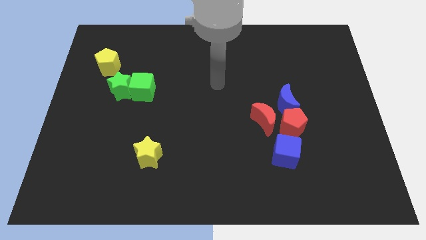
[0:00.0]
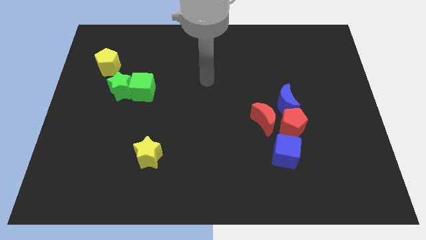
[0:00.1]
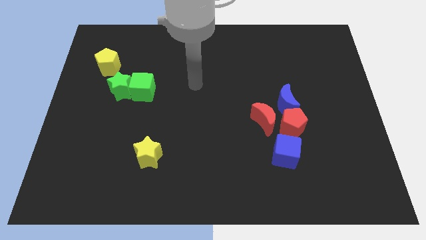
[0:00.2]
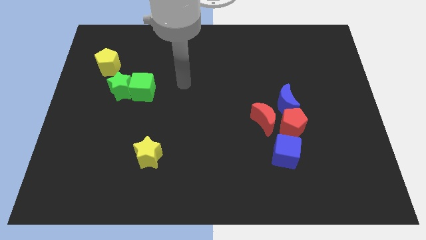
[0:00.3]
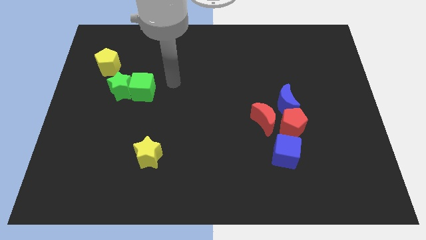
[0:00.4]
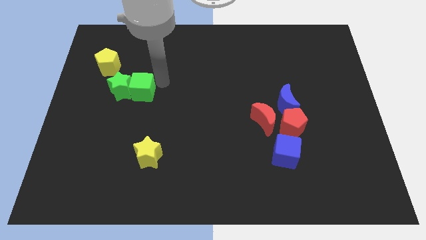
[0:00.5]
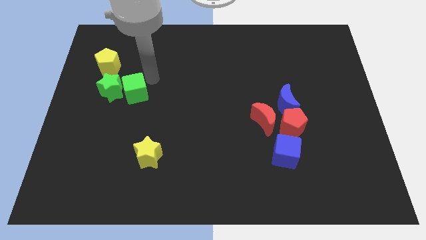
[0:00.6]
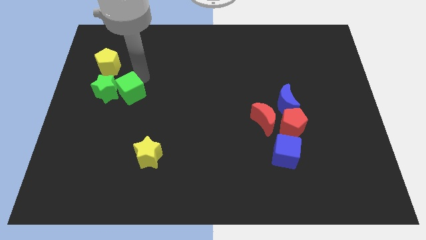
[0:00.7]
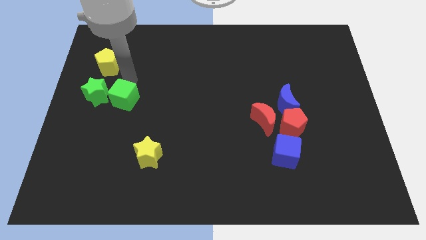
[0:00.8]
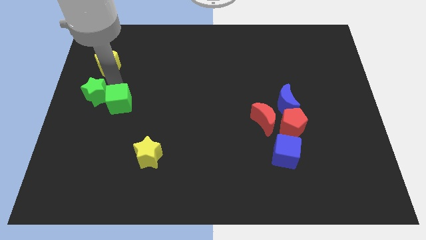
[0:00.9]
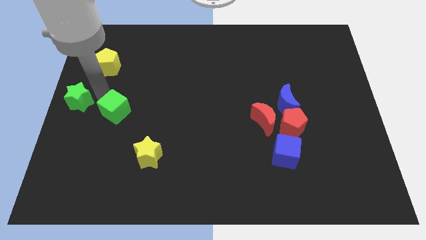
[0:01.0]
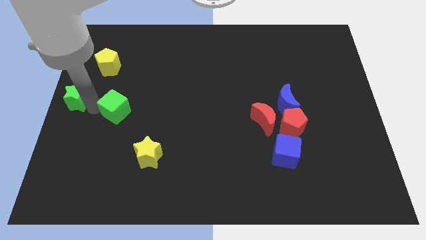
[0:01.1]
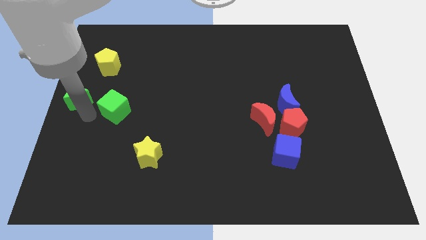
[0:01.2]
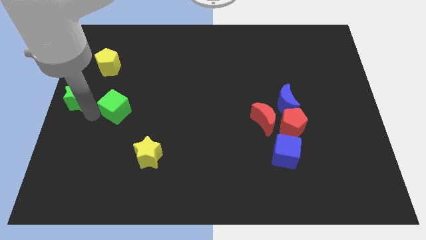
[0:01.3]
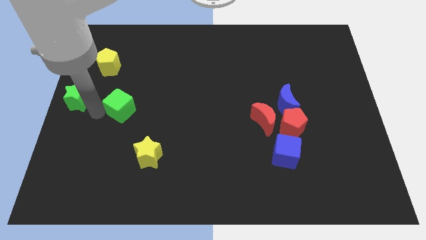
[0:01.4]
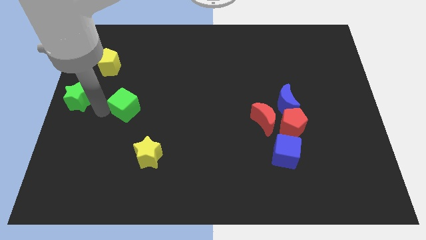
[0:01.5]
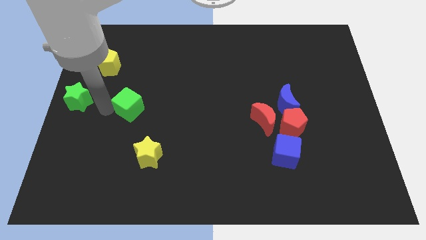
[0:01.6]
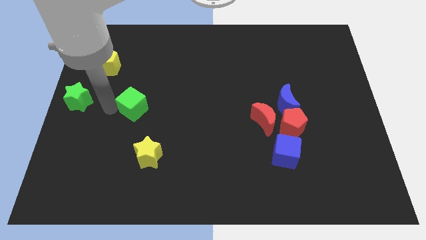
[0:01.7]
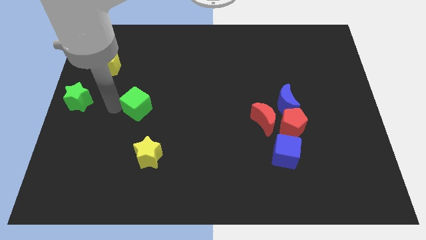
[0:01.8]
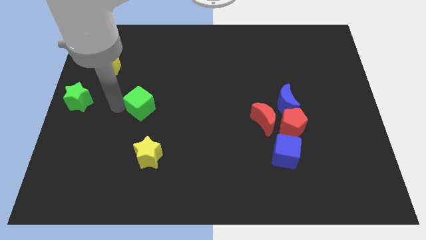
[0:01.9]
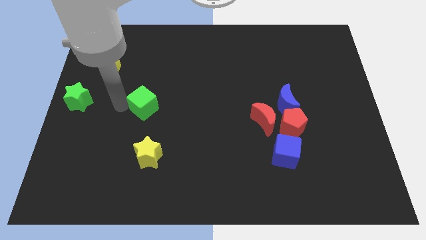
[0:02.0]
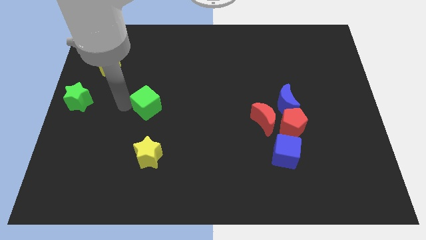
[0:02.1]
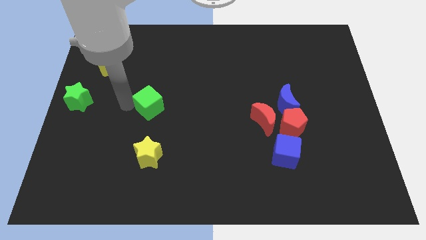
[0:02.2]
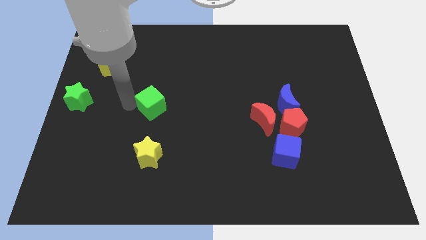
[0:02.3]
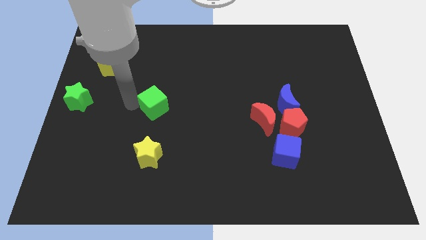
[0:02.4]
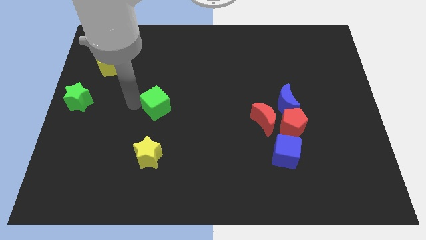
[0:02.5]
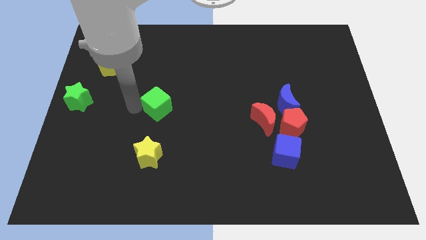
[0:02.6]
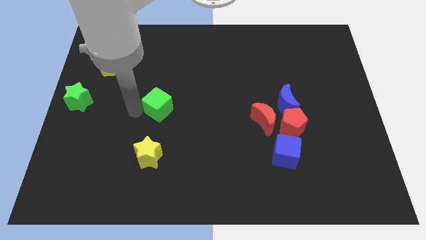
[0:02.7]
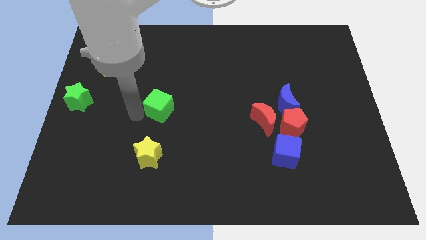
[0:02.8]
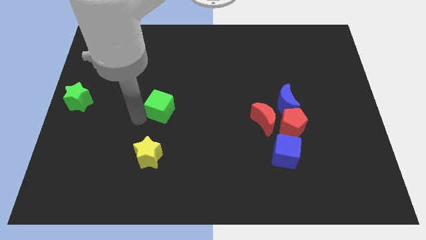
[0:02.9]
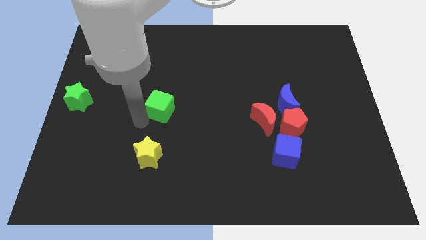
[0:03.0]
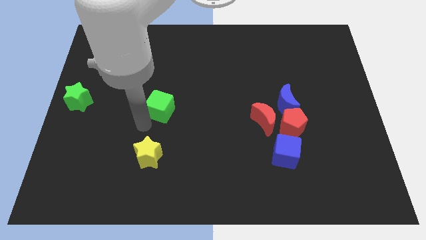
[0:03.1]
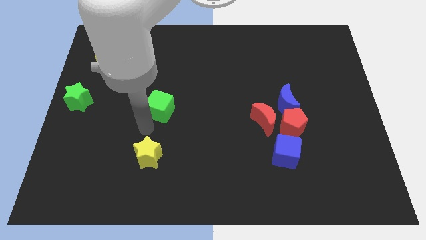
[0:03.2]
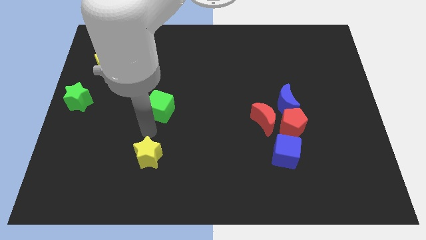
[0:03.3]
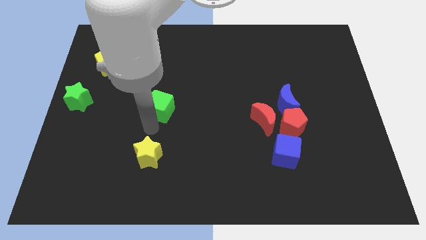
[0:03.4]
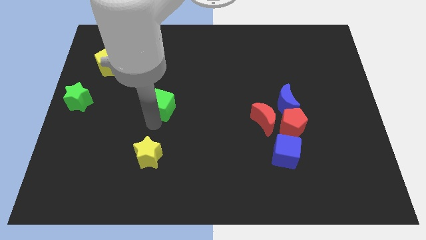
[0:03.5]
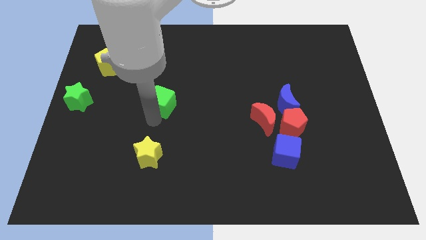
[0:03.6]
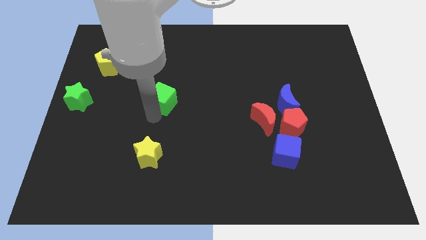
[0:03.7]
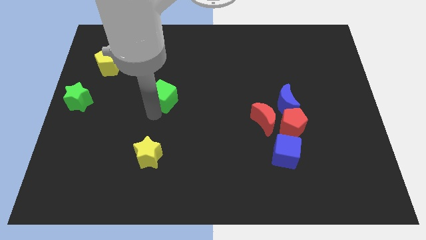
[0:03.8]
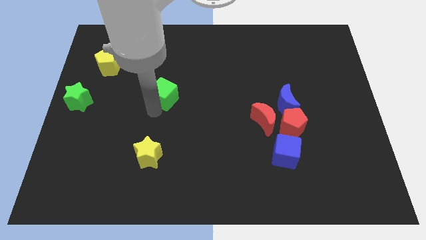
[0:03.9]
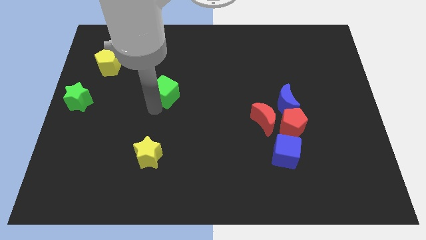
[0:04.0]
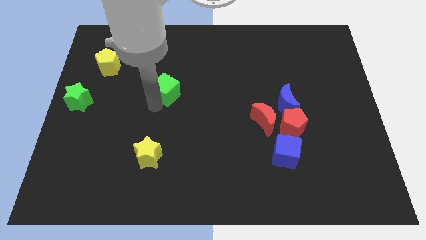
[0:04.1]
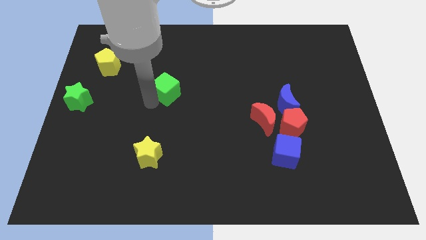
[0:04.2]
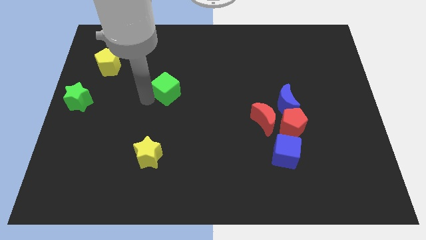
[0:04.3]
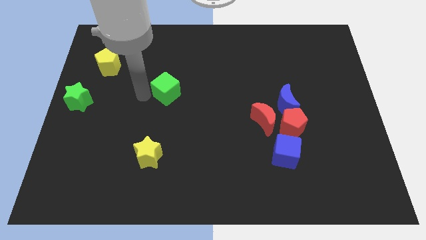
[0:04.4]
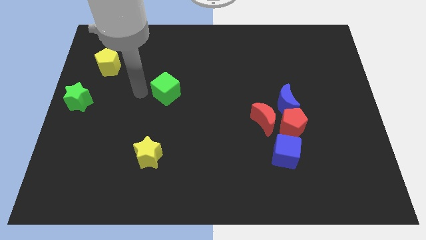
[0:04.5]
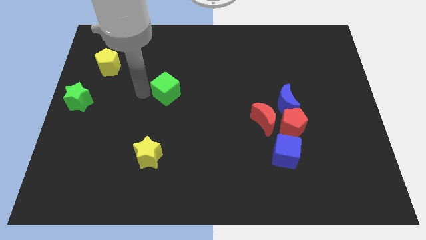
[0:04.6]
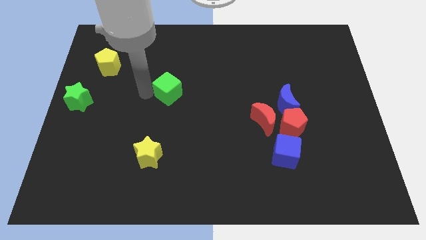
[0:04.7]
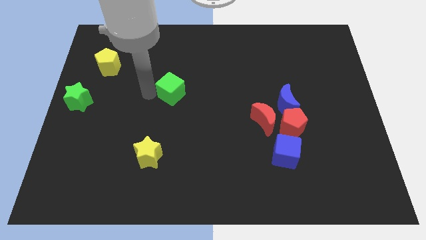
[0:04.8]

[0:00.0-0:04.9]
slightly slide the green cube to the right

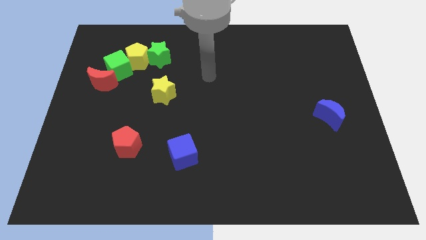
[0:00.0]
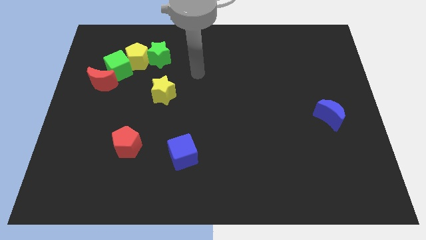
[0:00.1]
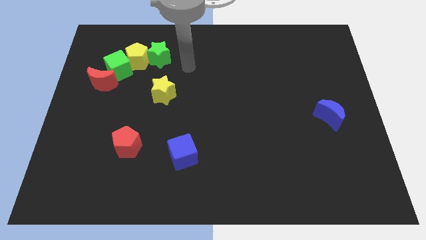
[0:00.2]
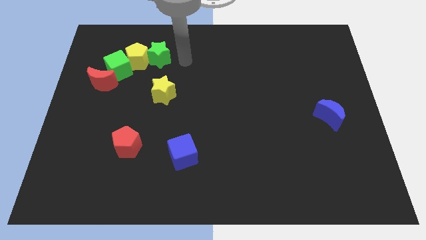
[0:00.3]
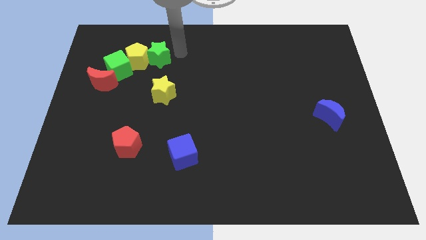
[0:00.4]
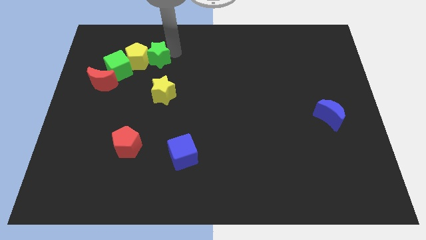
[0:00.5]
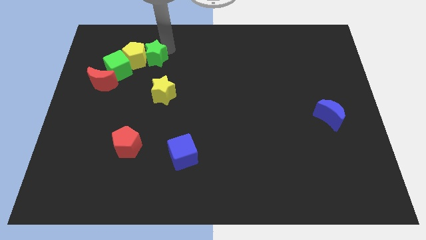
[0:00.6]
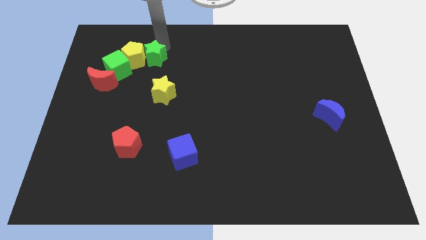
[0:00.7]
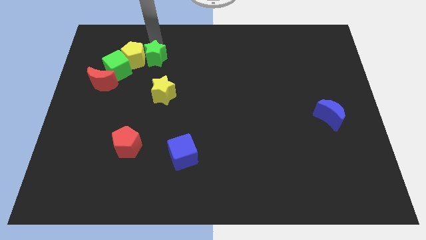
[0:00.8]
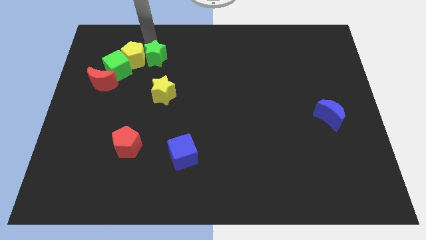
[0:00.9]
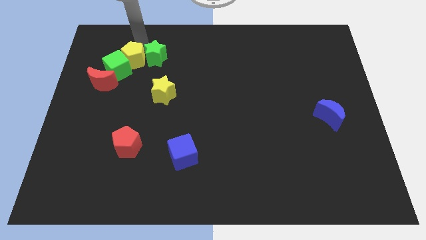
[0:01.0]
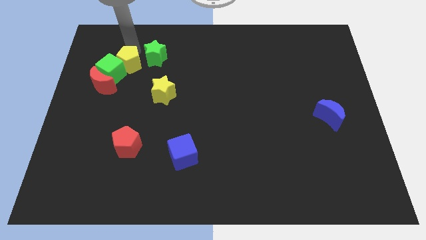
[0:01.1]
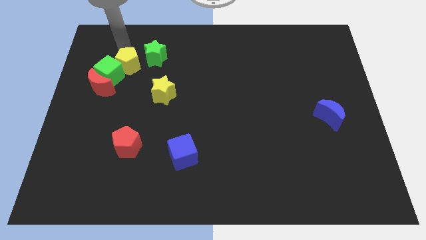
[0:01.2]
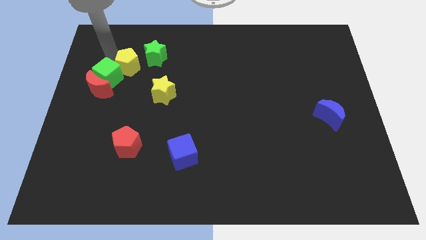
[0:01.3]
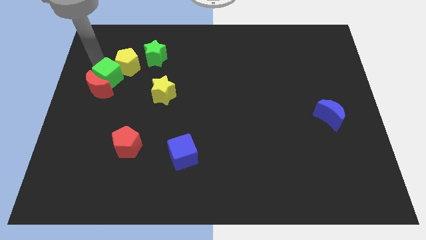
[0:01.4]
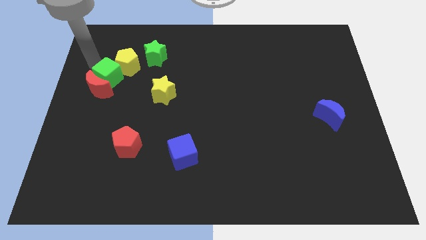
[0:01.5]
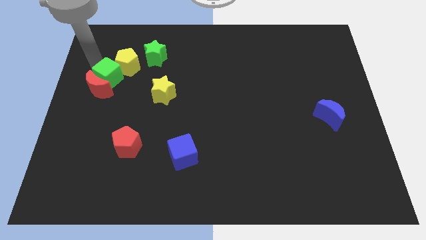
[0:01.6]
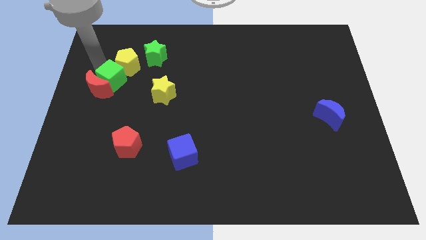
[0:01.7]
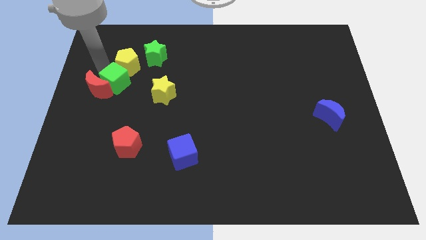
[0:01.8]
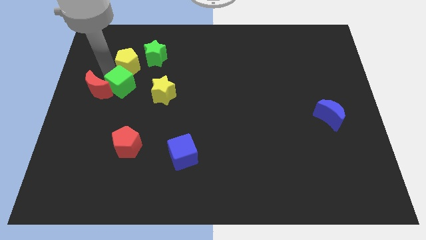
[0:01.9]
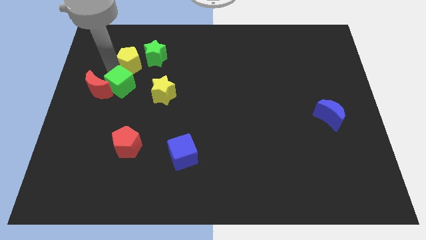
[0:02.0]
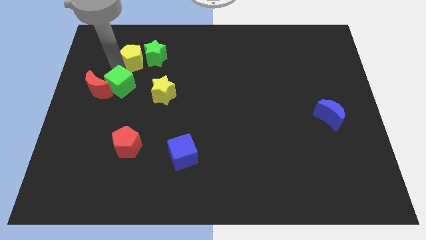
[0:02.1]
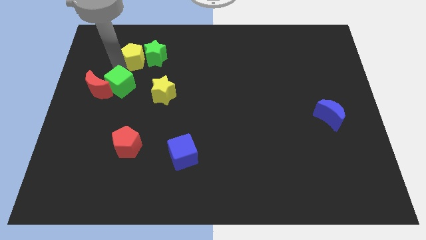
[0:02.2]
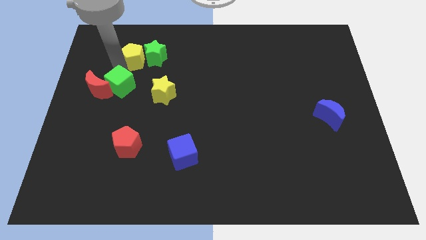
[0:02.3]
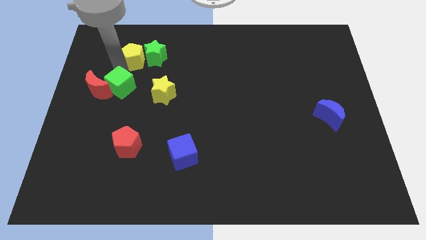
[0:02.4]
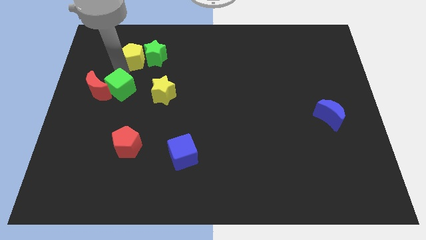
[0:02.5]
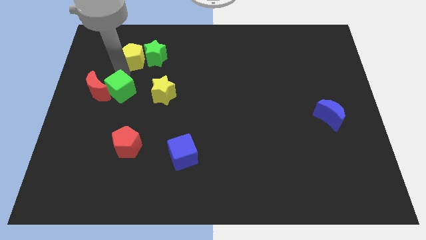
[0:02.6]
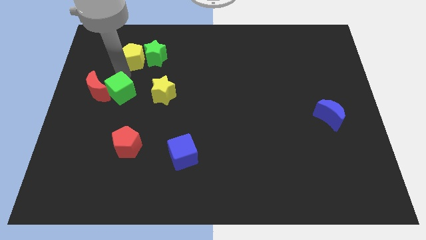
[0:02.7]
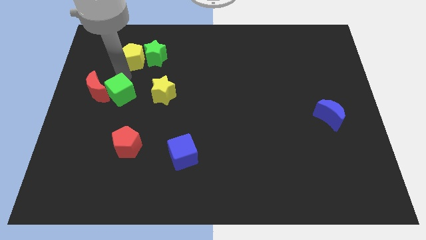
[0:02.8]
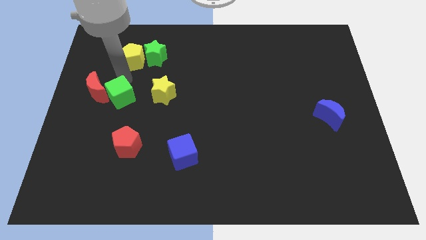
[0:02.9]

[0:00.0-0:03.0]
push the green cube slightly down and then to the right
